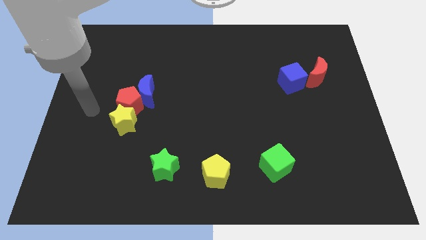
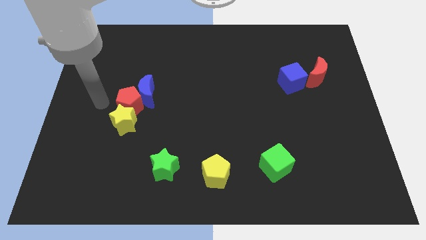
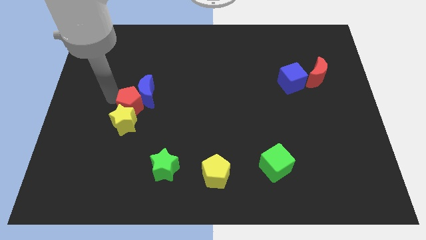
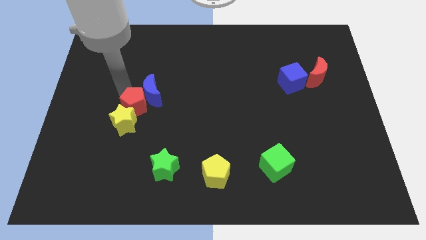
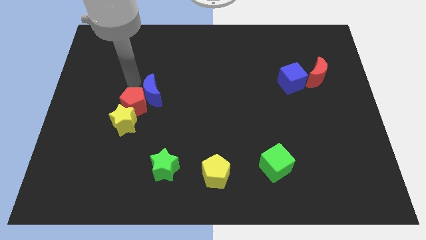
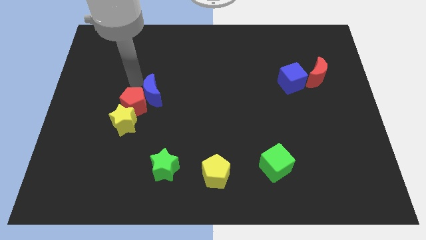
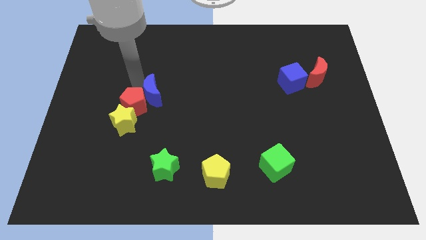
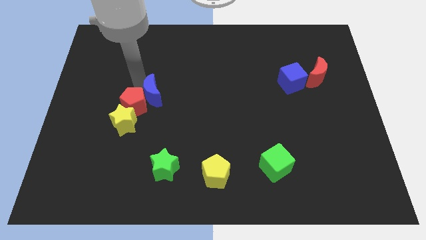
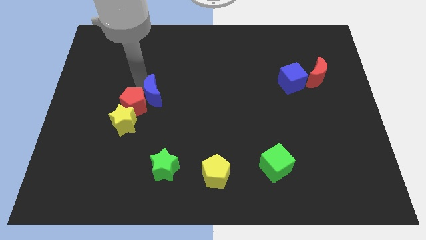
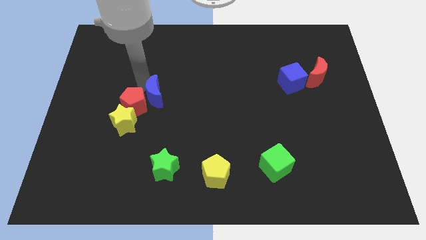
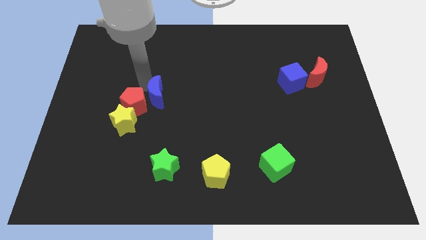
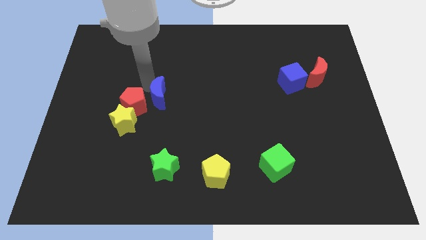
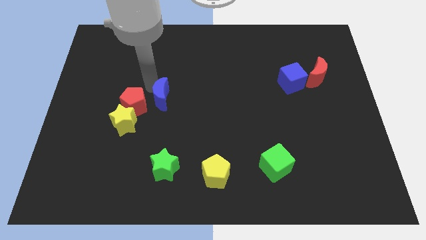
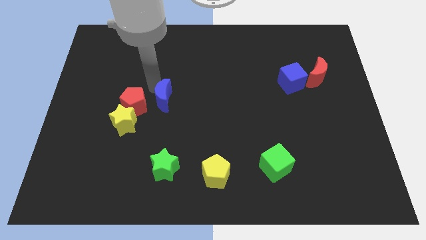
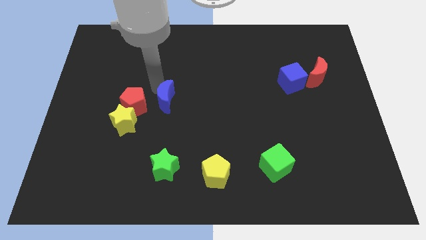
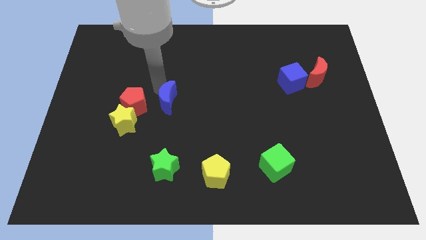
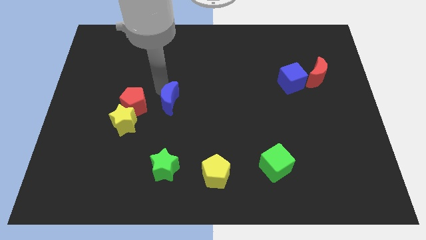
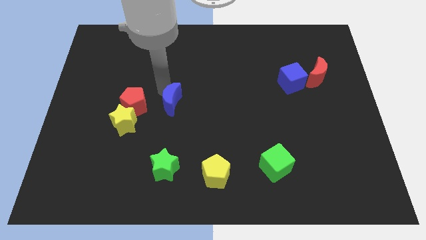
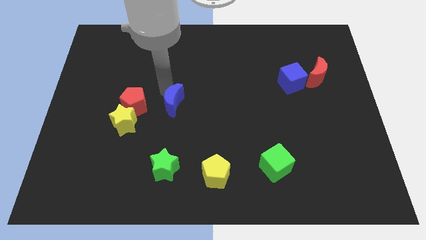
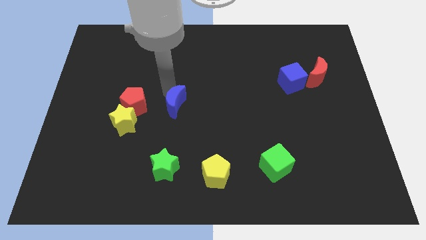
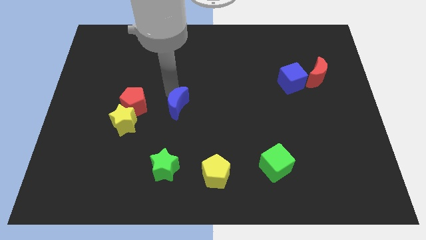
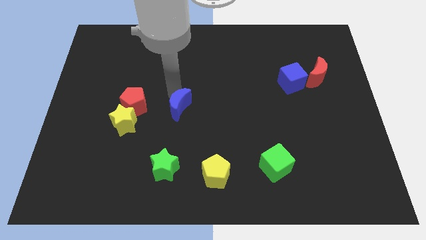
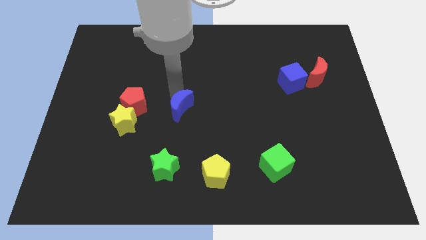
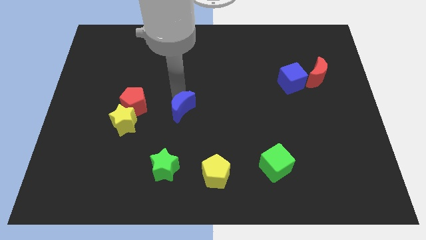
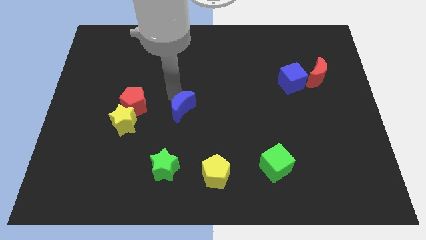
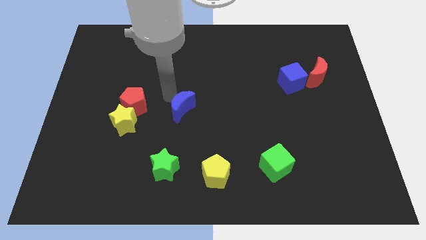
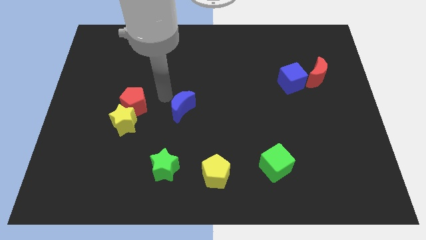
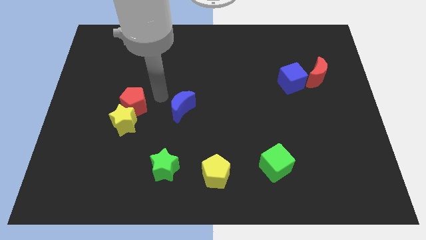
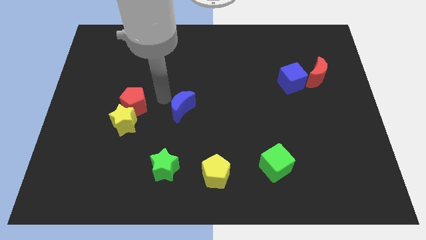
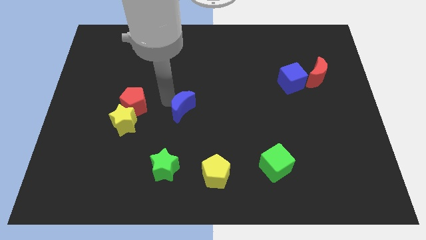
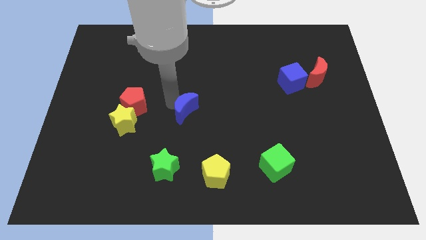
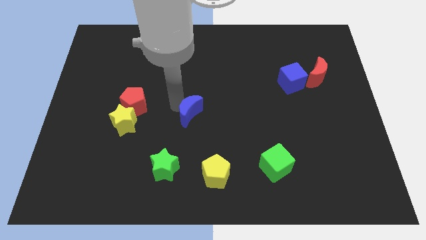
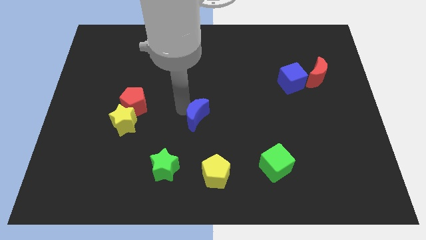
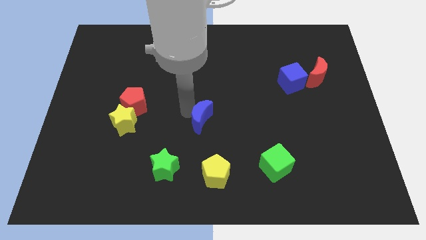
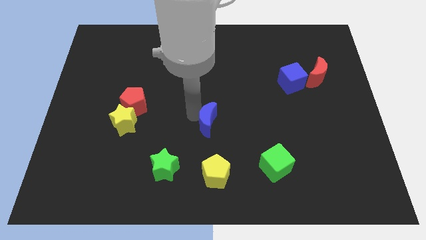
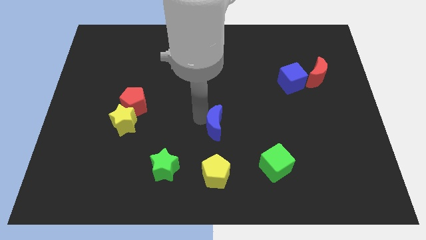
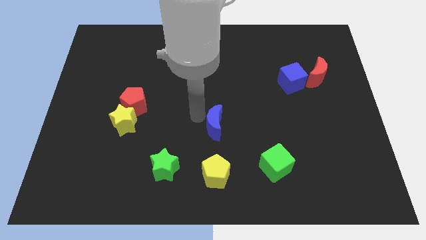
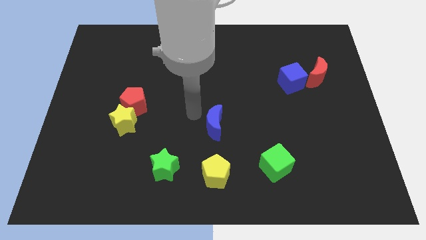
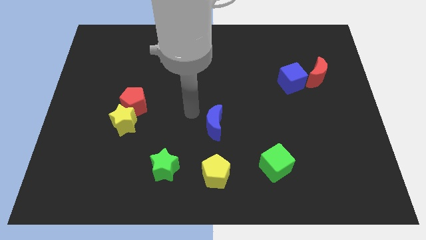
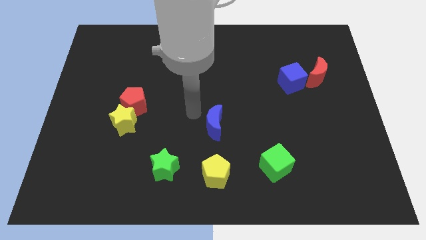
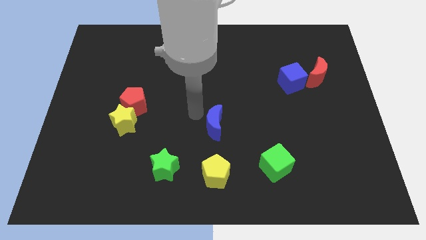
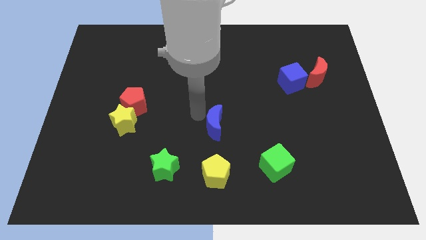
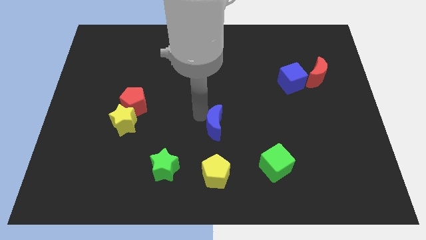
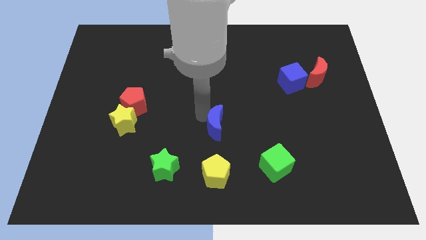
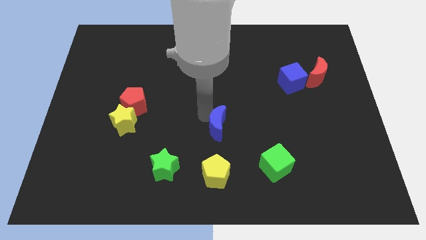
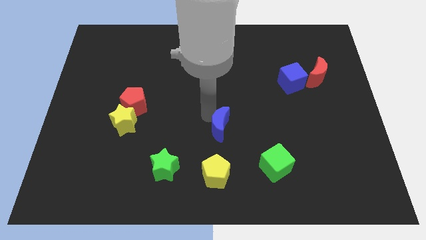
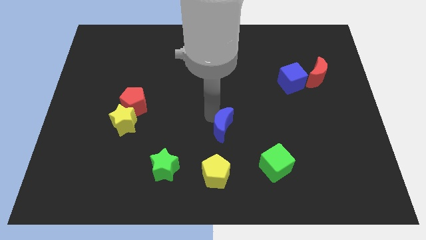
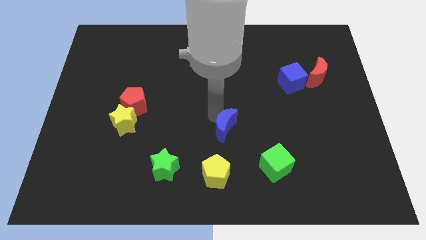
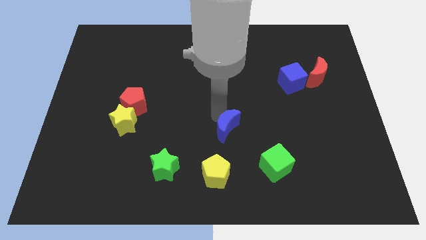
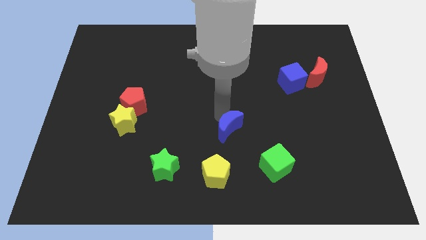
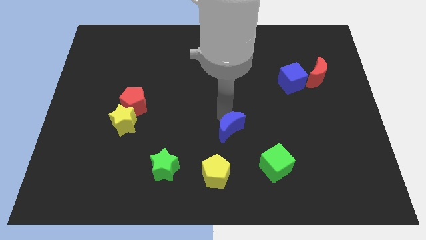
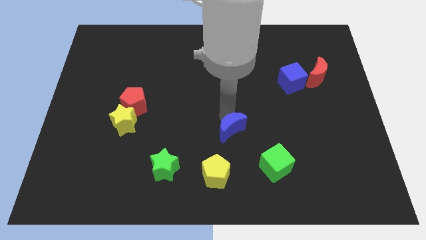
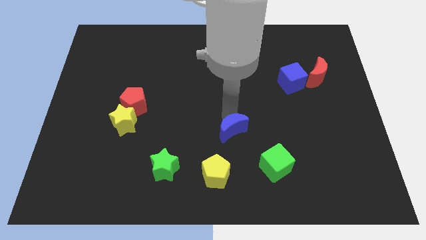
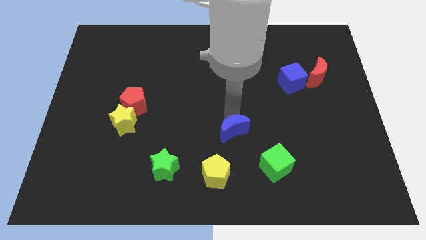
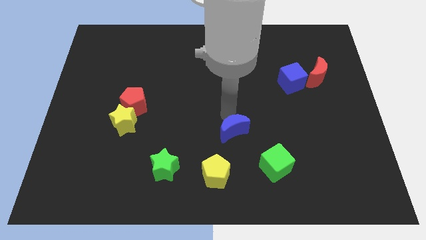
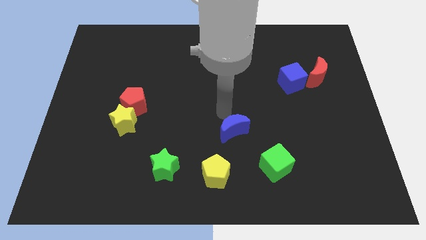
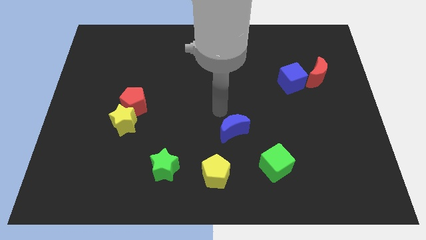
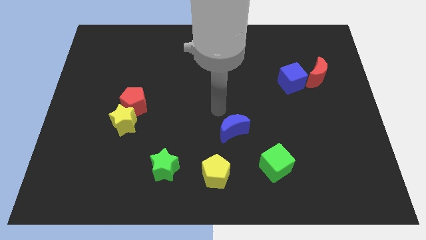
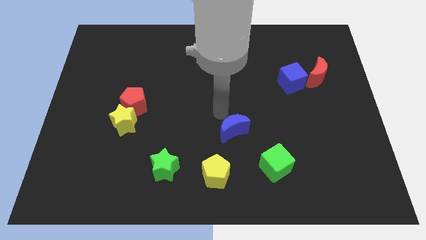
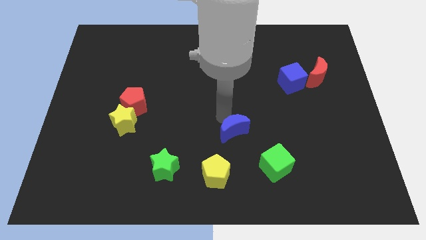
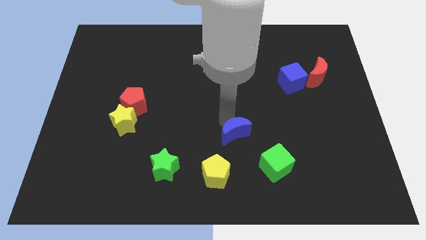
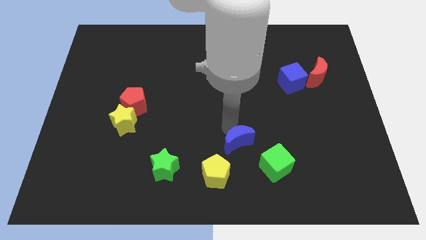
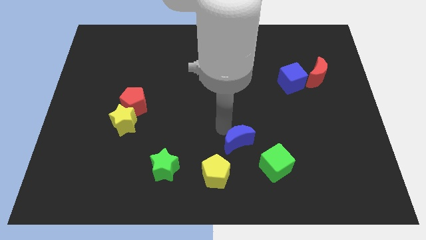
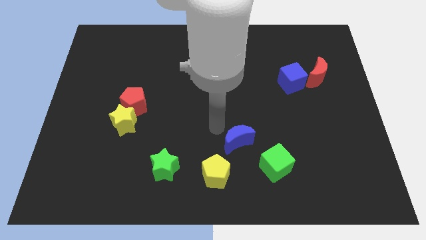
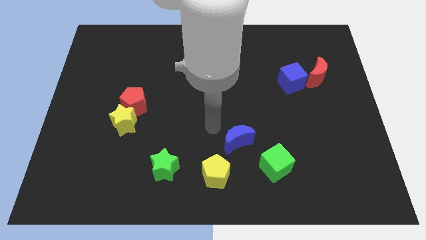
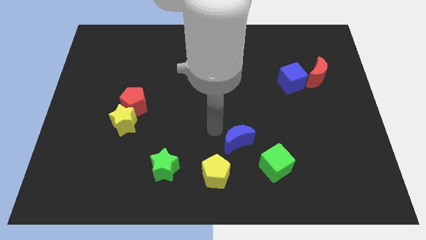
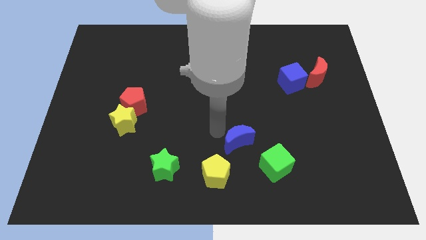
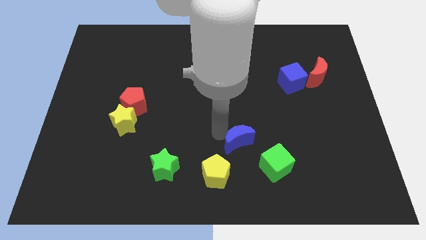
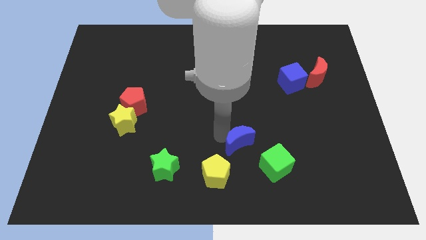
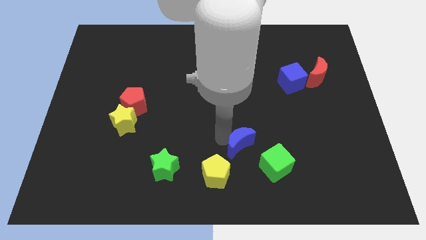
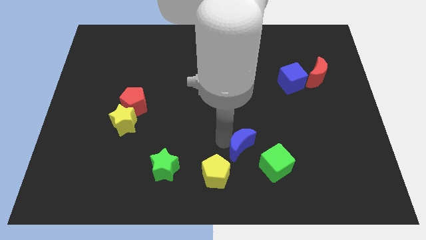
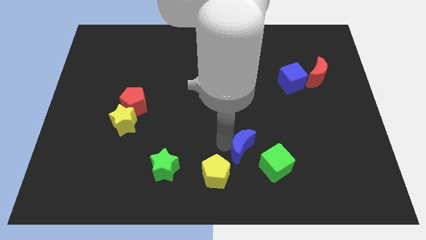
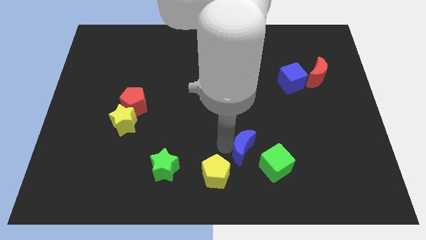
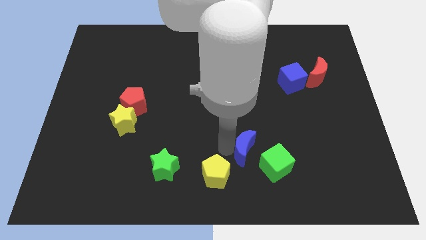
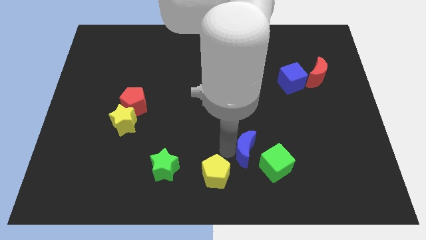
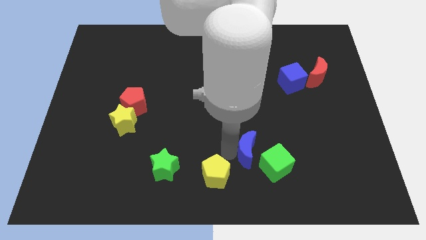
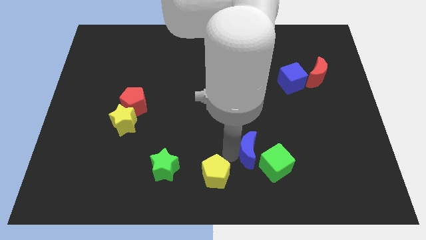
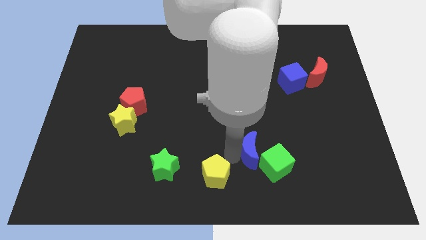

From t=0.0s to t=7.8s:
move the blue moon next to the green cube
